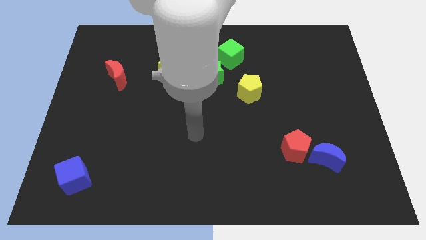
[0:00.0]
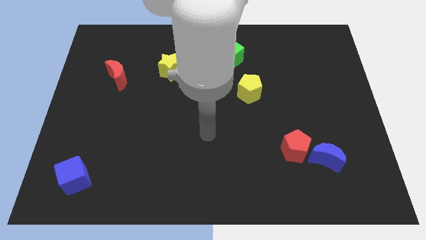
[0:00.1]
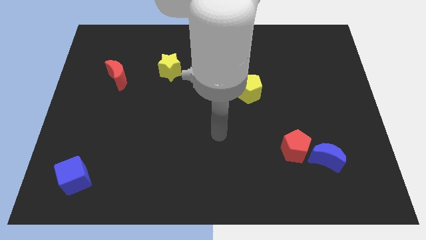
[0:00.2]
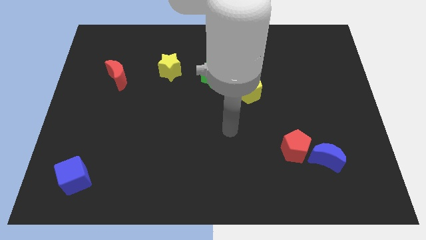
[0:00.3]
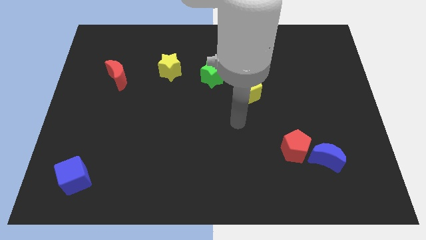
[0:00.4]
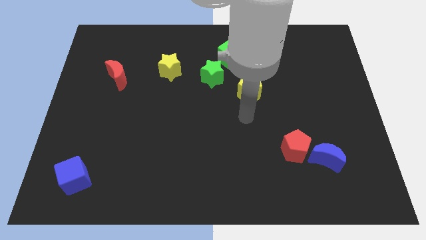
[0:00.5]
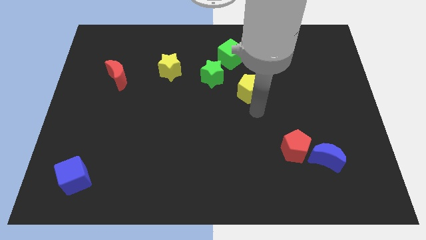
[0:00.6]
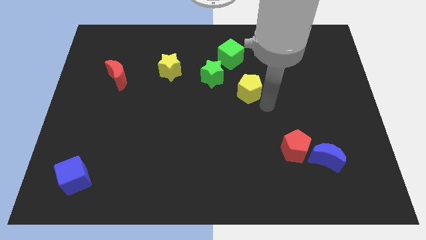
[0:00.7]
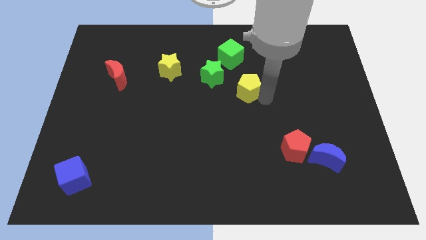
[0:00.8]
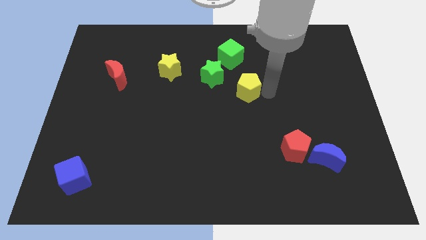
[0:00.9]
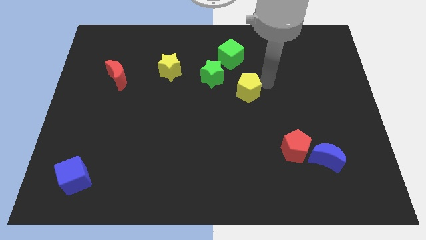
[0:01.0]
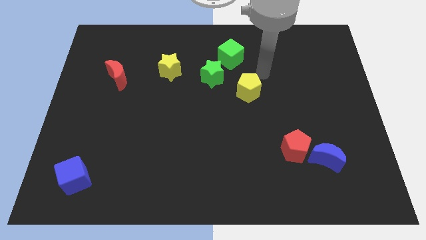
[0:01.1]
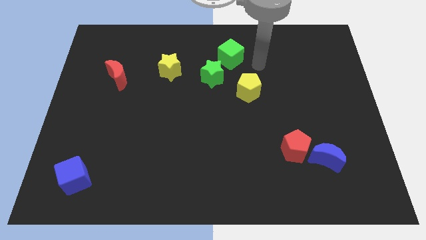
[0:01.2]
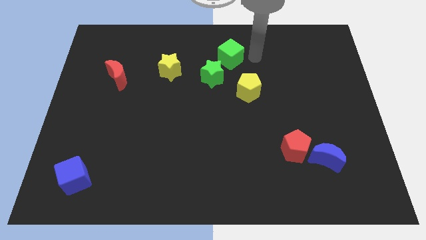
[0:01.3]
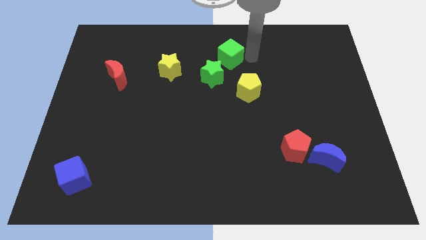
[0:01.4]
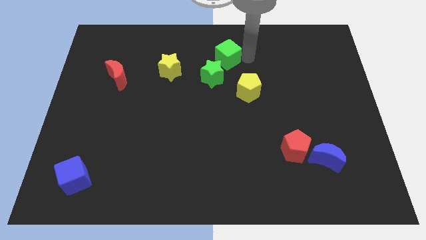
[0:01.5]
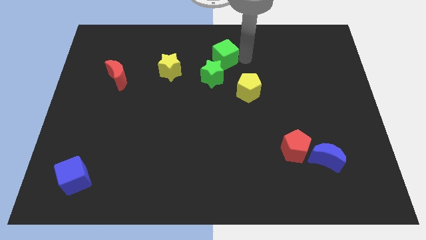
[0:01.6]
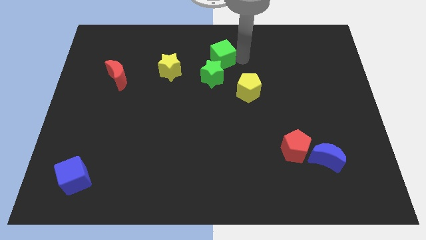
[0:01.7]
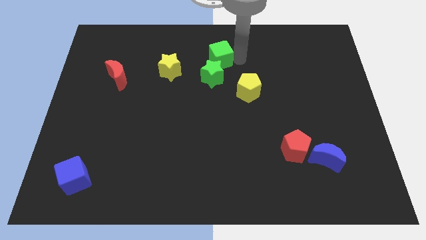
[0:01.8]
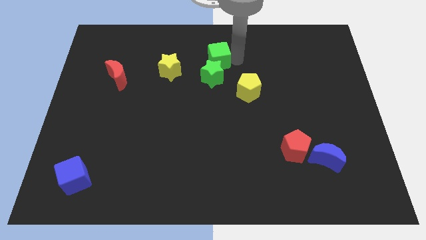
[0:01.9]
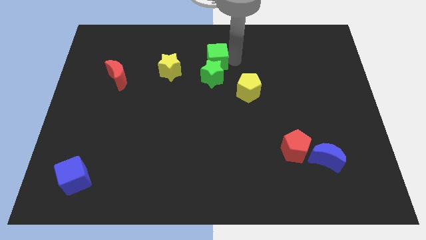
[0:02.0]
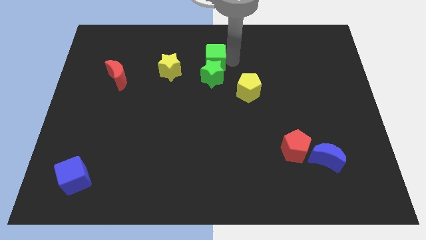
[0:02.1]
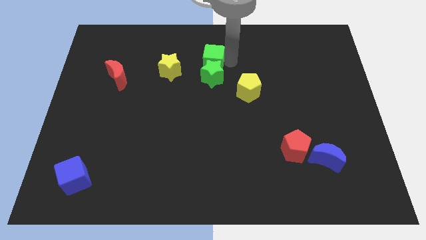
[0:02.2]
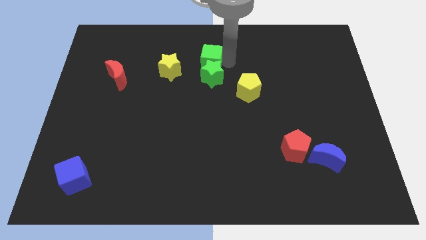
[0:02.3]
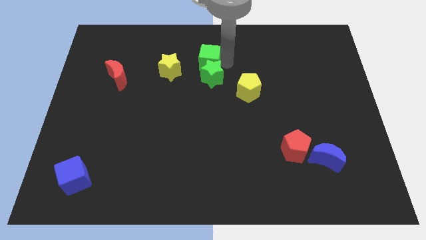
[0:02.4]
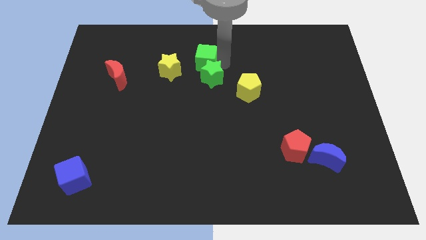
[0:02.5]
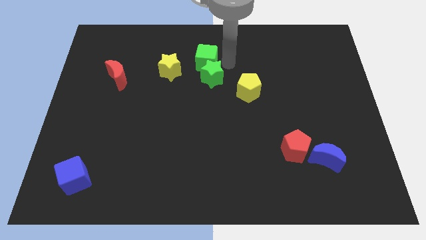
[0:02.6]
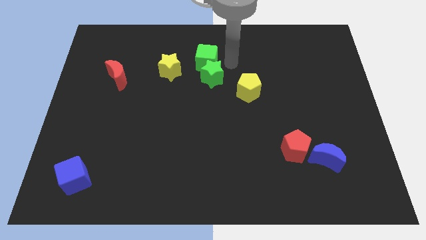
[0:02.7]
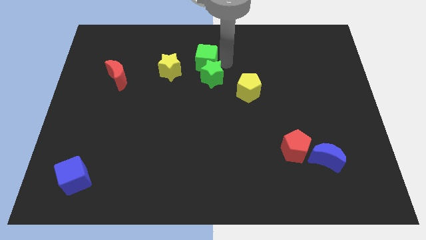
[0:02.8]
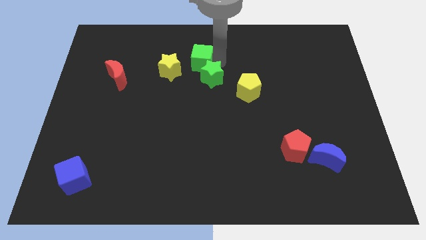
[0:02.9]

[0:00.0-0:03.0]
push the green cube left somewhat

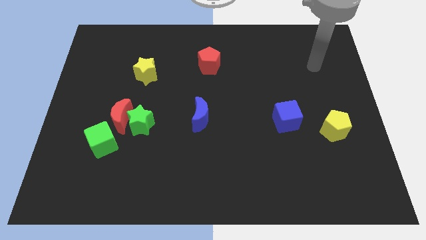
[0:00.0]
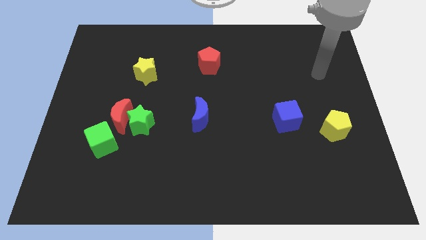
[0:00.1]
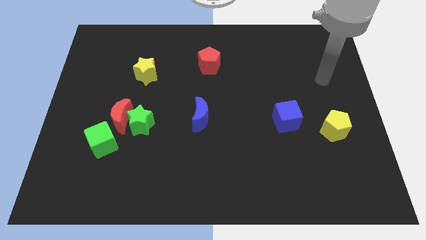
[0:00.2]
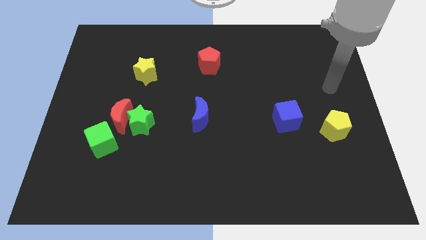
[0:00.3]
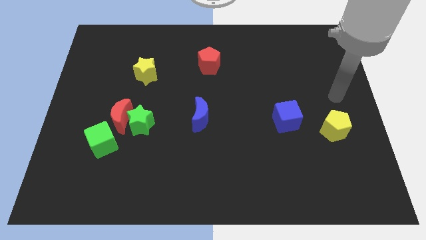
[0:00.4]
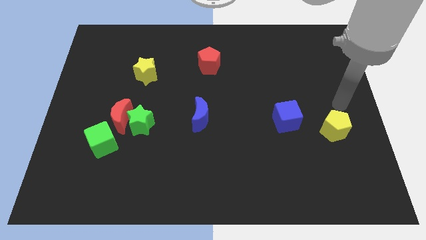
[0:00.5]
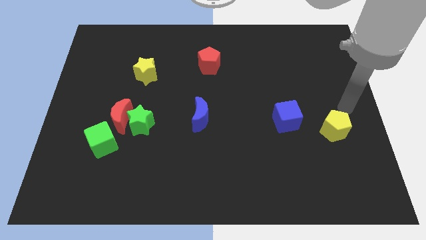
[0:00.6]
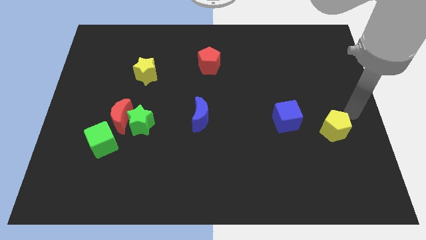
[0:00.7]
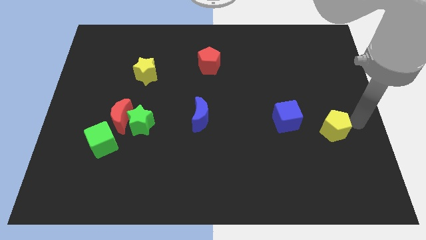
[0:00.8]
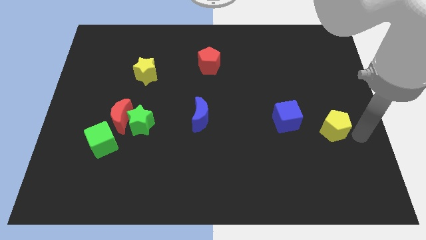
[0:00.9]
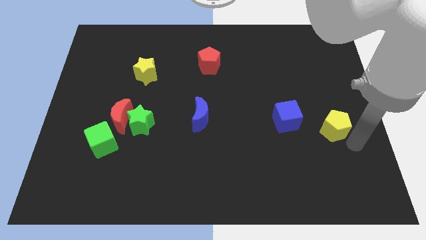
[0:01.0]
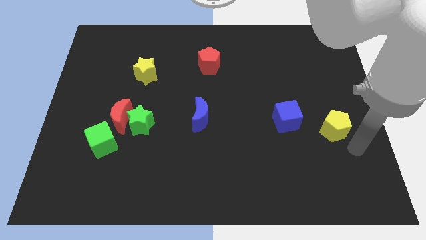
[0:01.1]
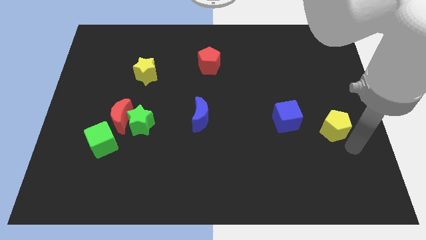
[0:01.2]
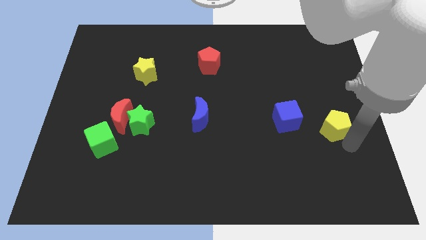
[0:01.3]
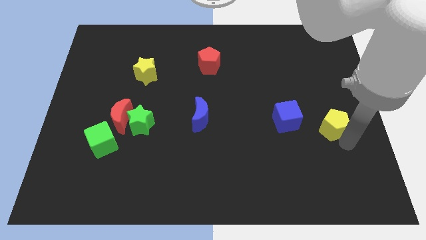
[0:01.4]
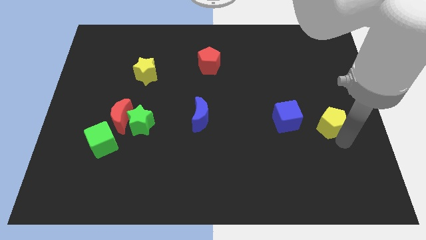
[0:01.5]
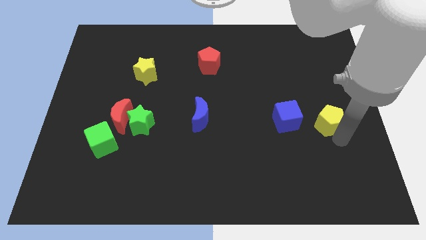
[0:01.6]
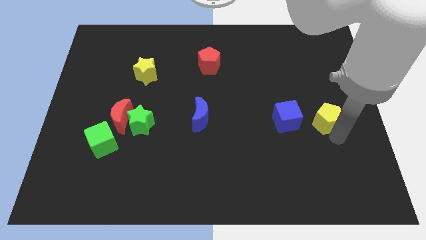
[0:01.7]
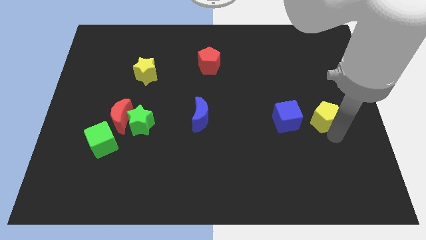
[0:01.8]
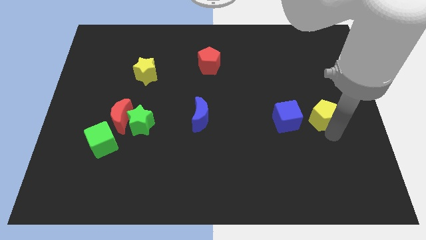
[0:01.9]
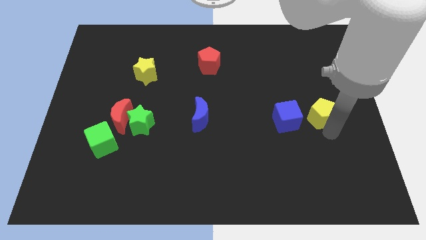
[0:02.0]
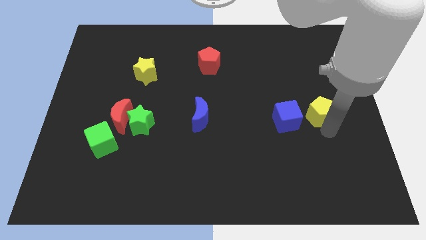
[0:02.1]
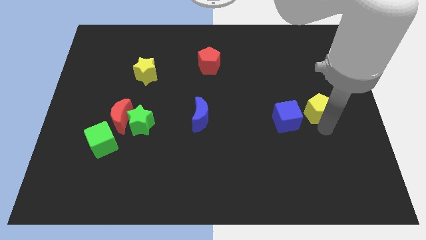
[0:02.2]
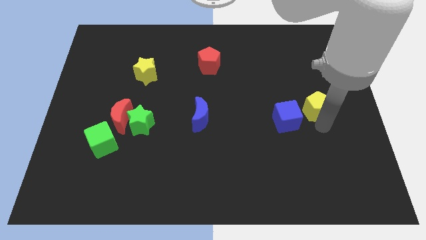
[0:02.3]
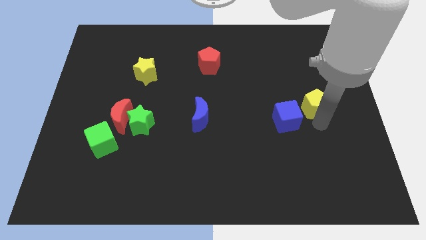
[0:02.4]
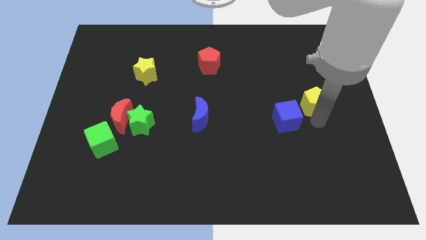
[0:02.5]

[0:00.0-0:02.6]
slightly move the yellow pentagon upwards and then to the left

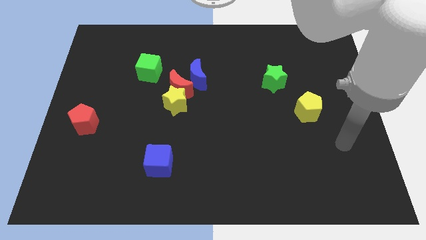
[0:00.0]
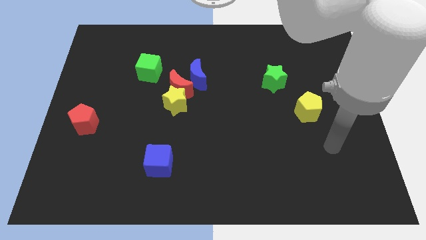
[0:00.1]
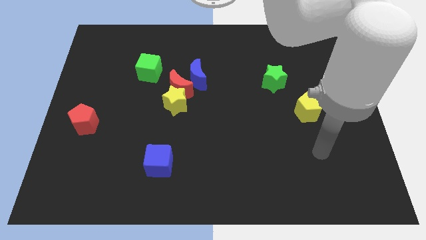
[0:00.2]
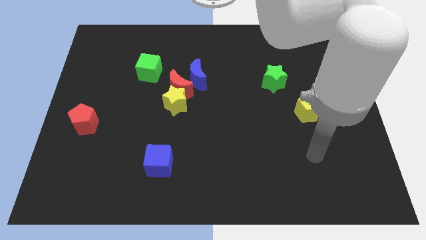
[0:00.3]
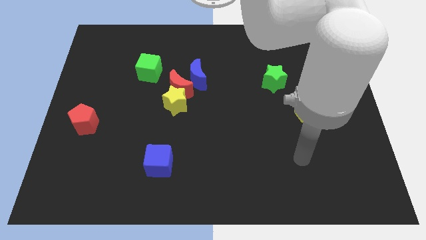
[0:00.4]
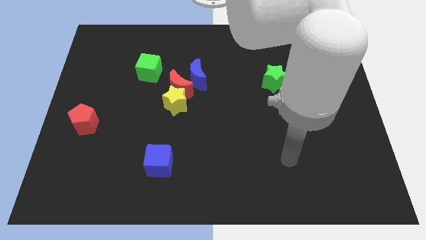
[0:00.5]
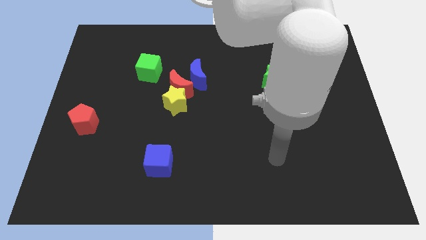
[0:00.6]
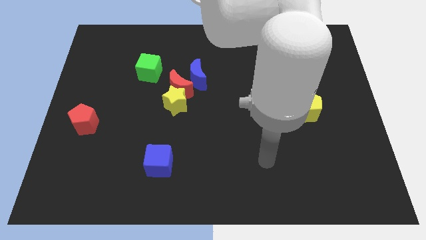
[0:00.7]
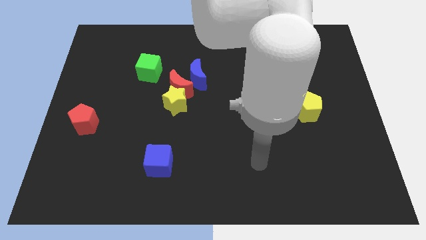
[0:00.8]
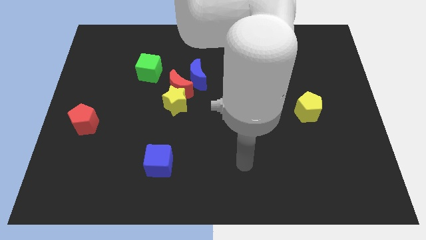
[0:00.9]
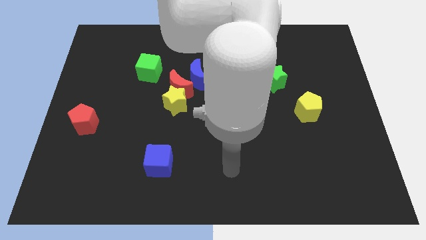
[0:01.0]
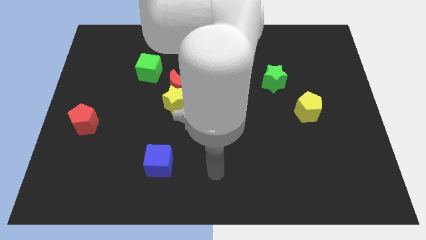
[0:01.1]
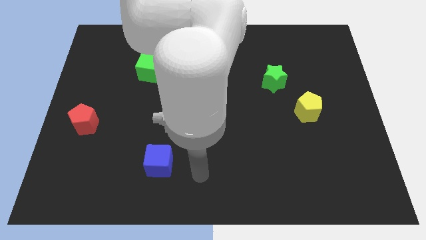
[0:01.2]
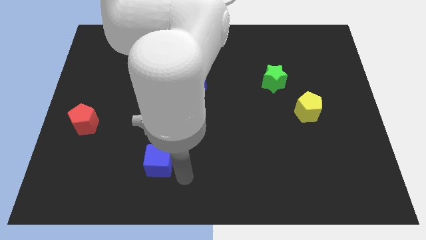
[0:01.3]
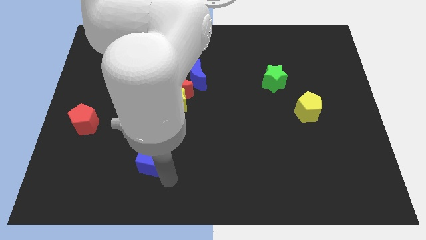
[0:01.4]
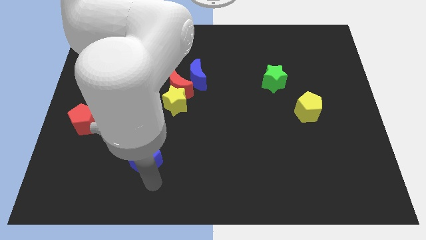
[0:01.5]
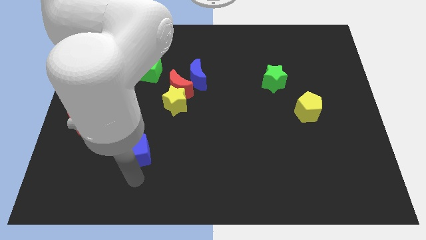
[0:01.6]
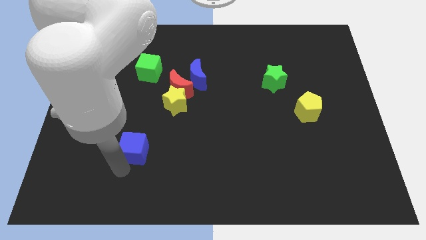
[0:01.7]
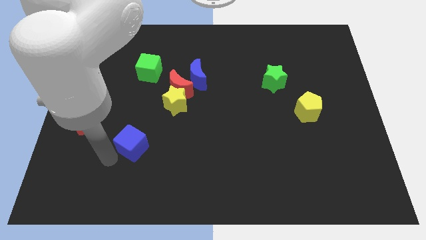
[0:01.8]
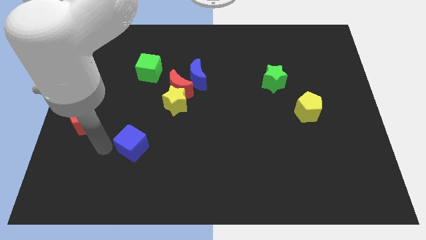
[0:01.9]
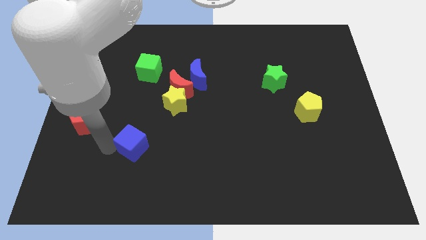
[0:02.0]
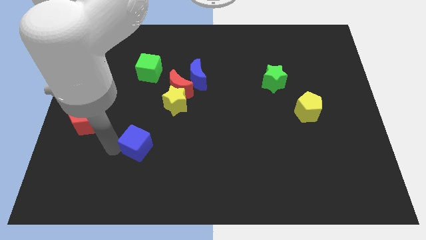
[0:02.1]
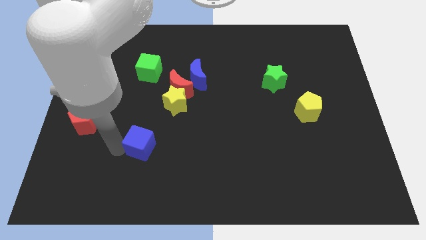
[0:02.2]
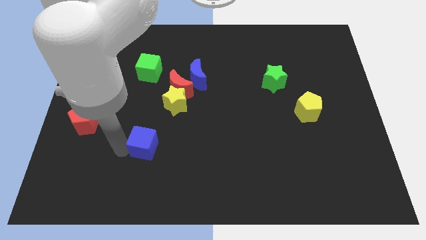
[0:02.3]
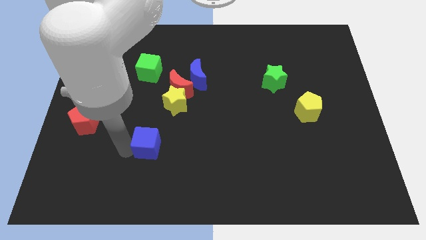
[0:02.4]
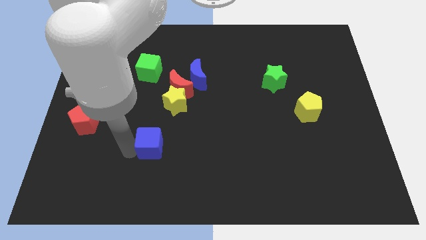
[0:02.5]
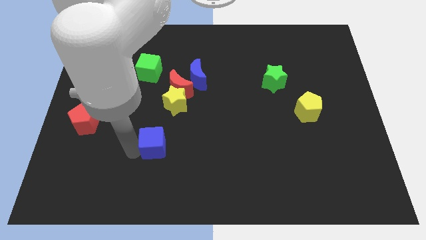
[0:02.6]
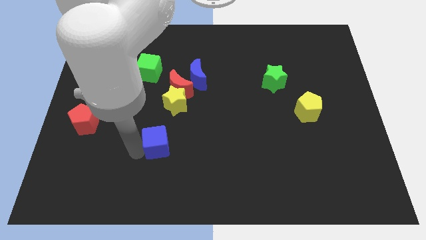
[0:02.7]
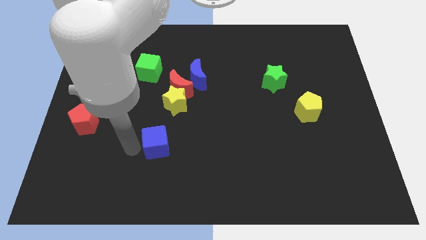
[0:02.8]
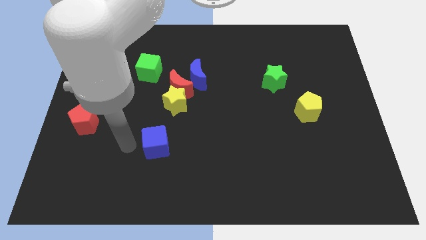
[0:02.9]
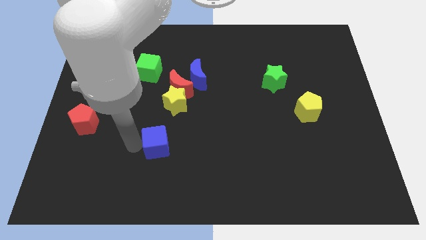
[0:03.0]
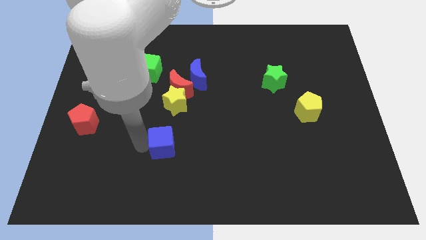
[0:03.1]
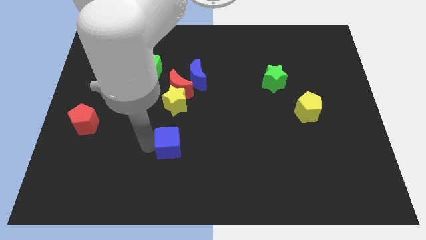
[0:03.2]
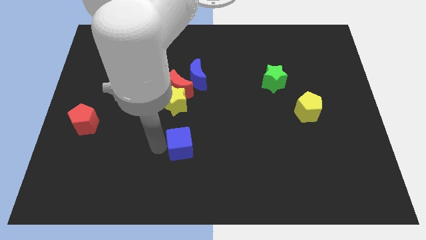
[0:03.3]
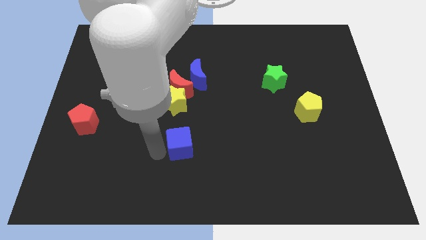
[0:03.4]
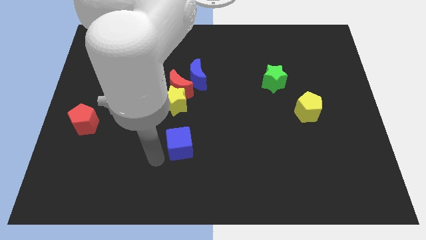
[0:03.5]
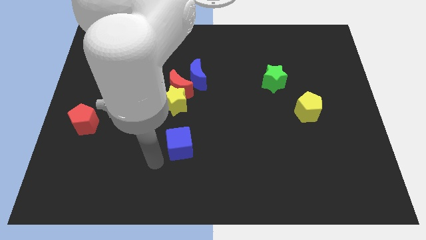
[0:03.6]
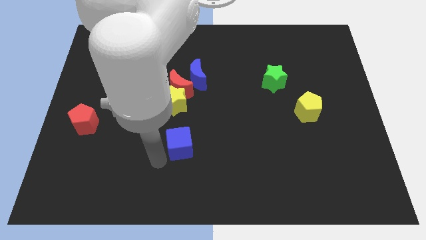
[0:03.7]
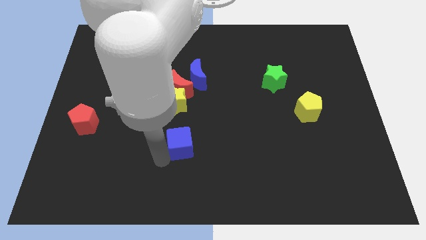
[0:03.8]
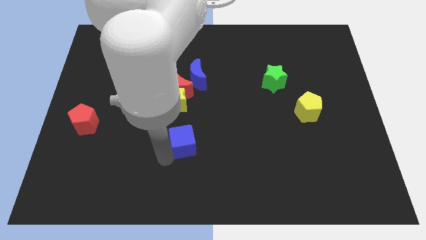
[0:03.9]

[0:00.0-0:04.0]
slightly push the blue cube upwards and to the right
